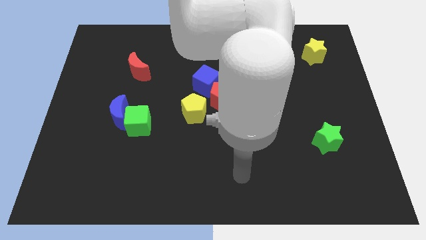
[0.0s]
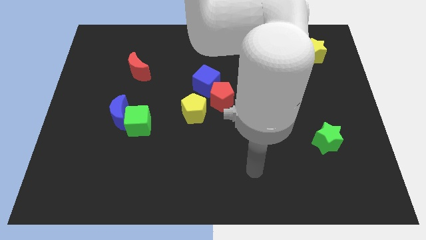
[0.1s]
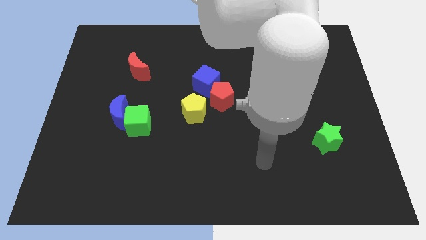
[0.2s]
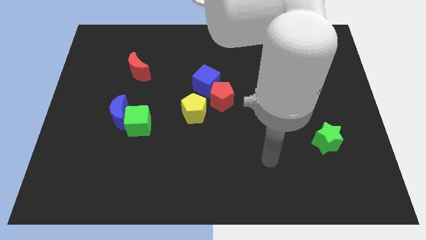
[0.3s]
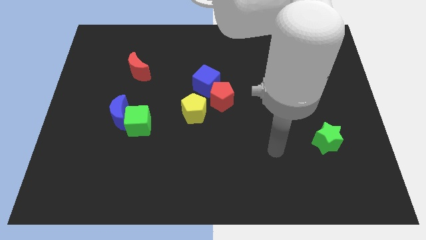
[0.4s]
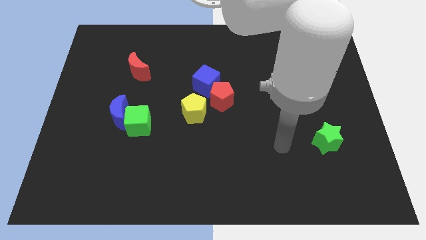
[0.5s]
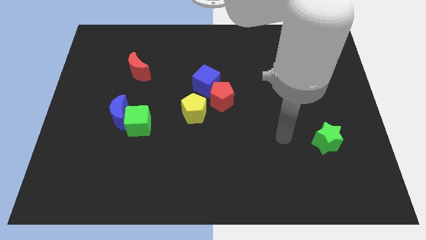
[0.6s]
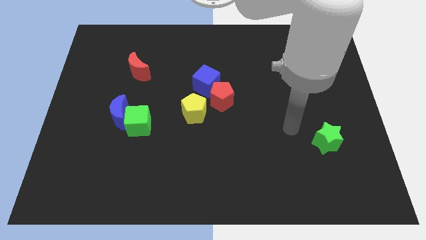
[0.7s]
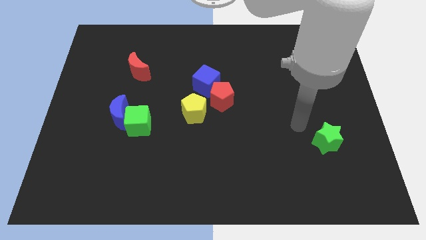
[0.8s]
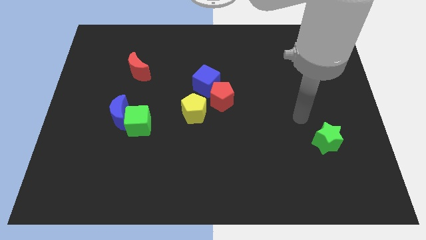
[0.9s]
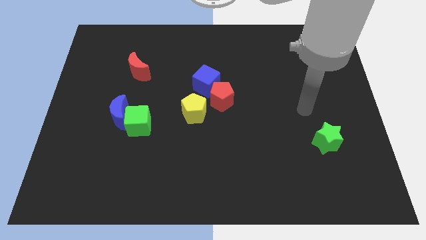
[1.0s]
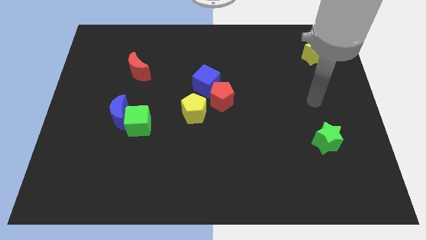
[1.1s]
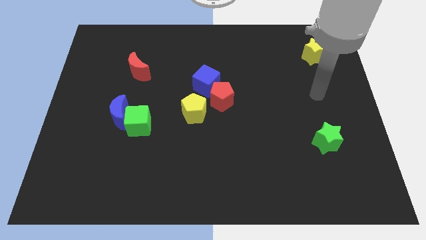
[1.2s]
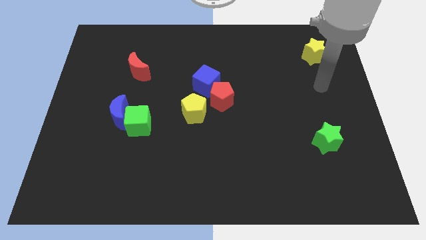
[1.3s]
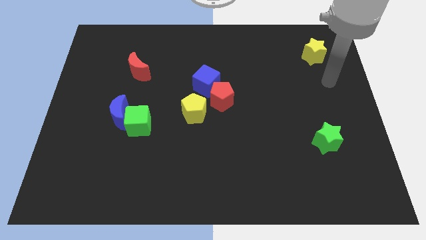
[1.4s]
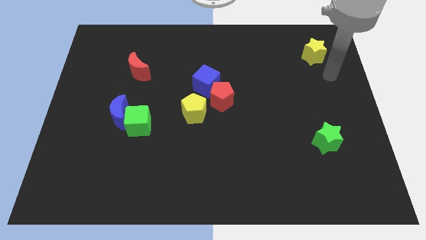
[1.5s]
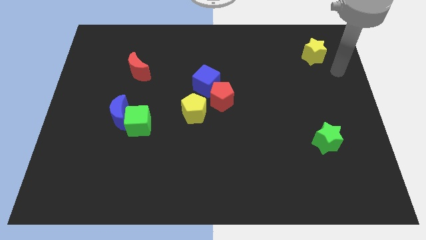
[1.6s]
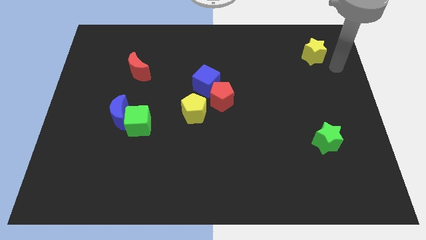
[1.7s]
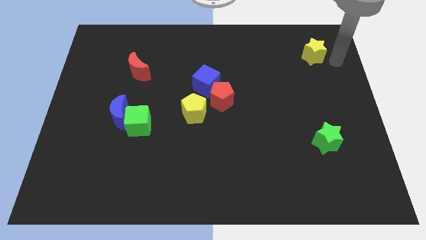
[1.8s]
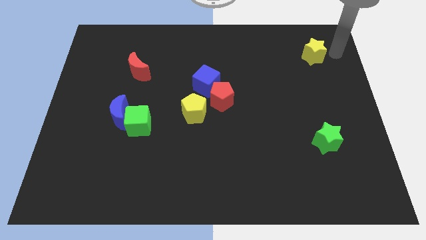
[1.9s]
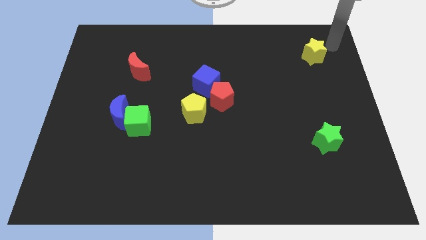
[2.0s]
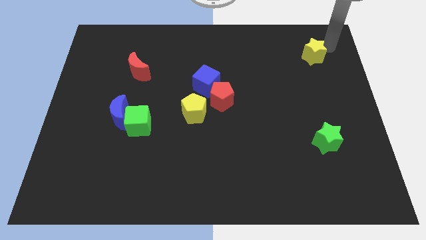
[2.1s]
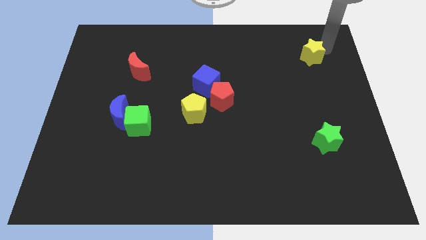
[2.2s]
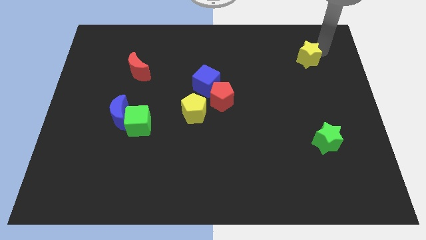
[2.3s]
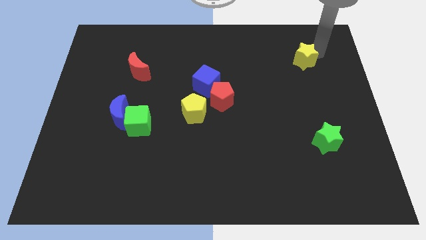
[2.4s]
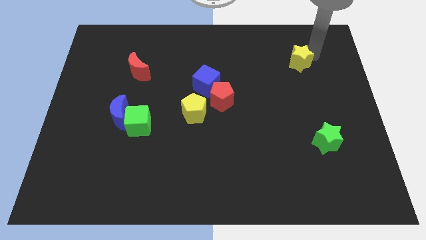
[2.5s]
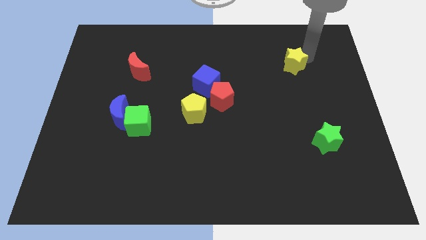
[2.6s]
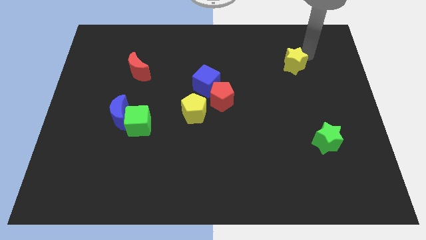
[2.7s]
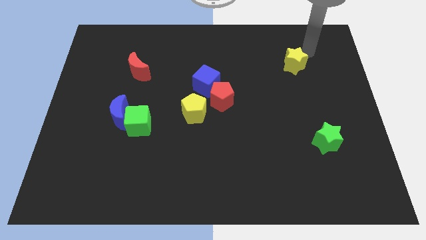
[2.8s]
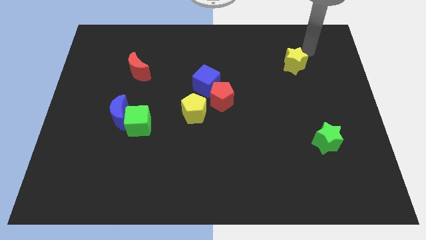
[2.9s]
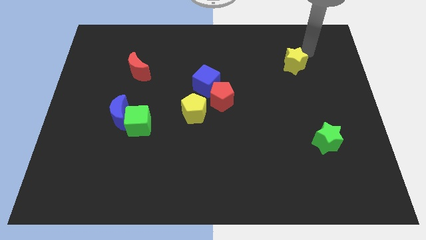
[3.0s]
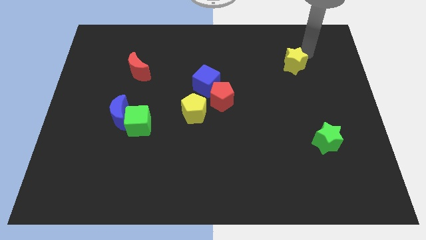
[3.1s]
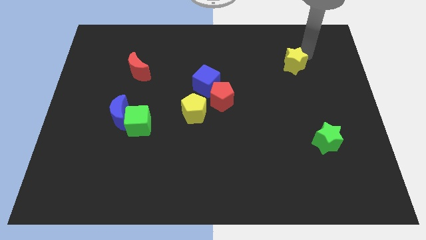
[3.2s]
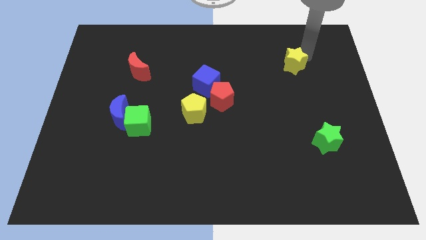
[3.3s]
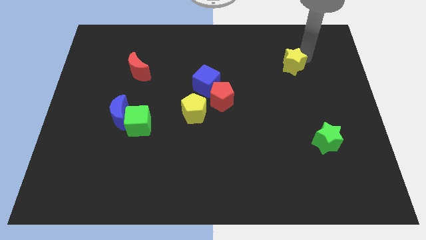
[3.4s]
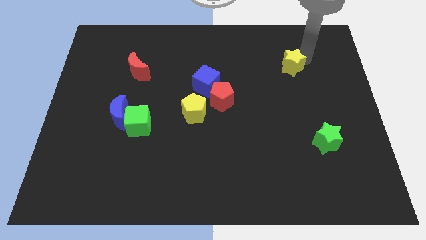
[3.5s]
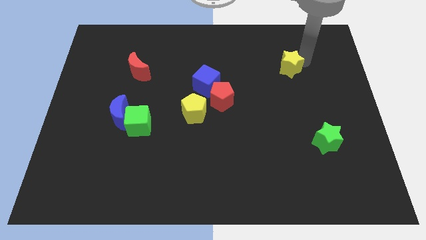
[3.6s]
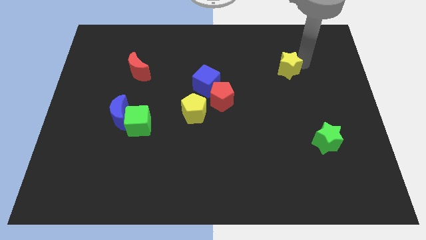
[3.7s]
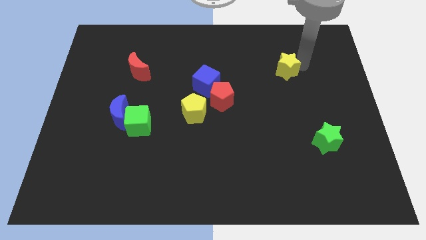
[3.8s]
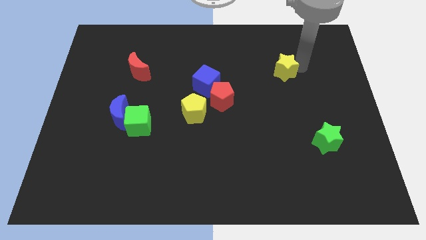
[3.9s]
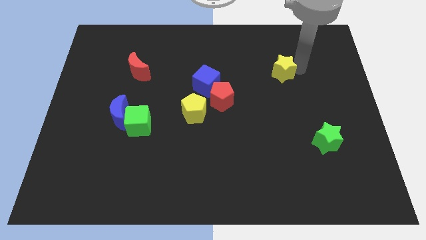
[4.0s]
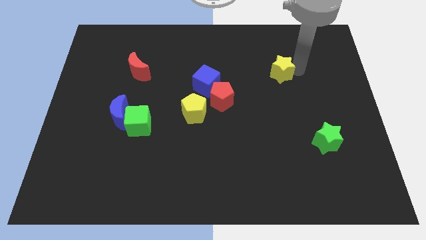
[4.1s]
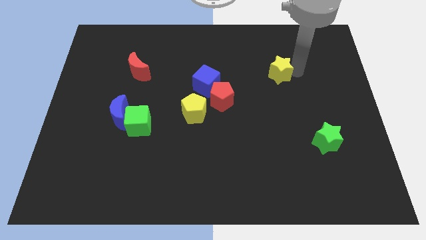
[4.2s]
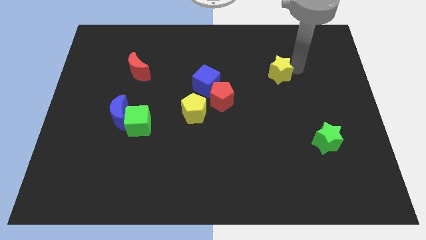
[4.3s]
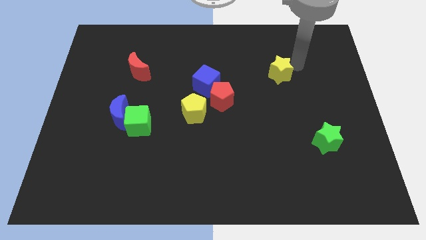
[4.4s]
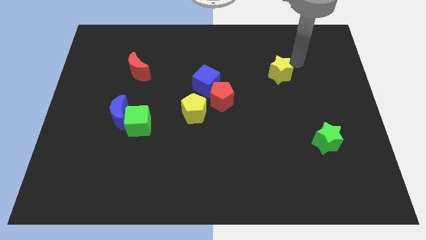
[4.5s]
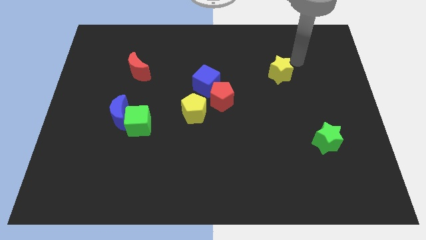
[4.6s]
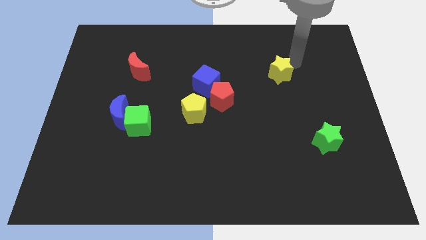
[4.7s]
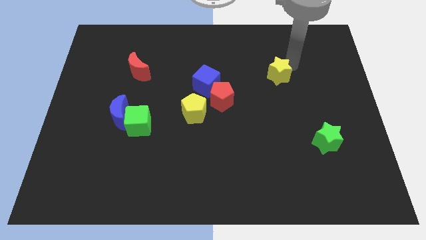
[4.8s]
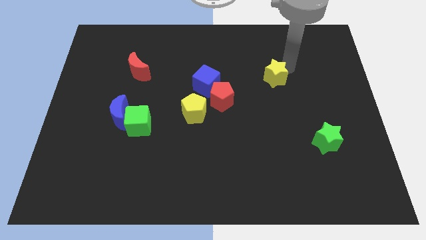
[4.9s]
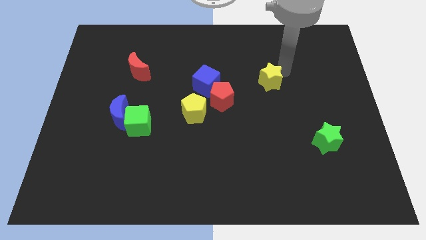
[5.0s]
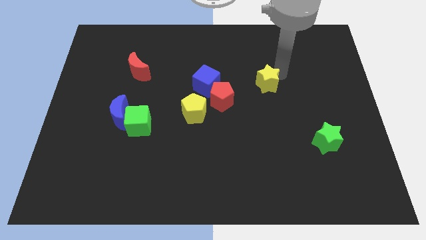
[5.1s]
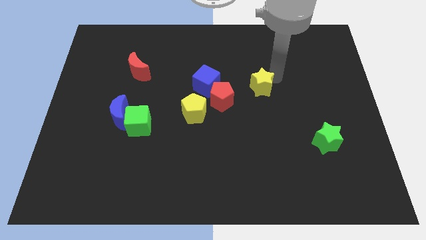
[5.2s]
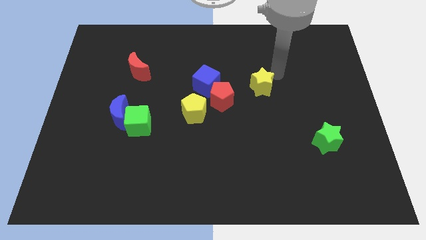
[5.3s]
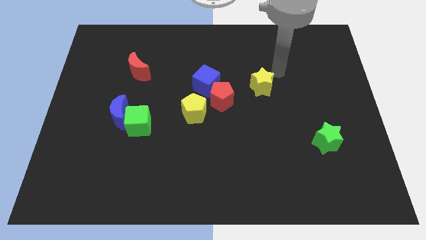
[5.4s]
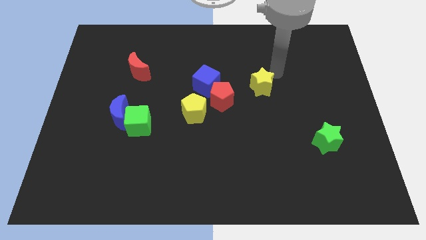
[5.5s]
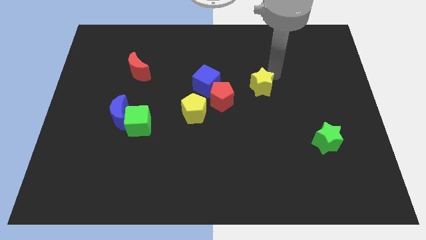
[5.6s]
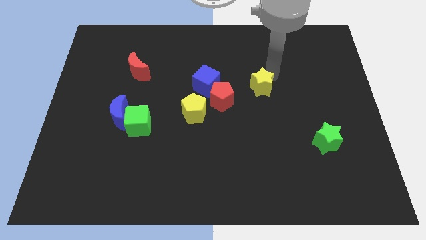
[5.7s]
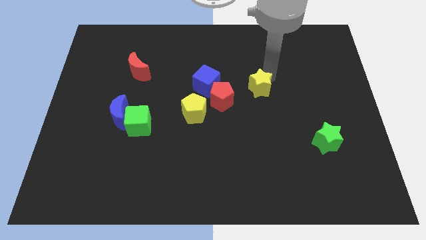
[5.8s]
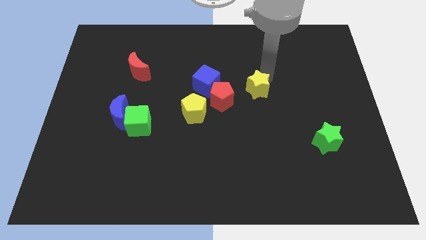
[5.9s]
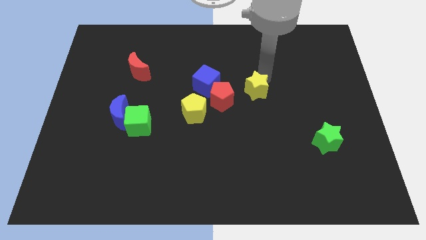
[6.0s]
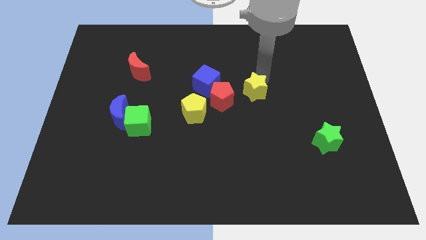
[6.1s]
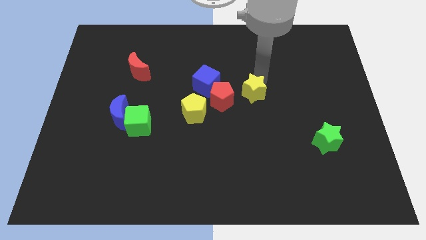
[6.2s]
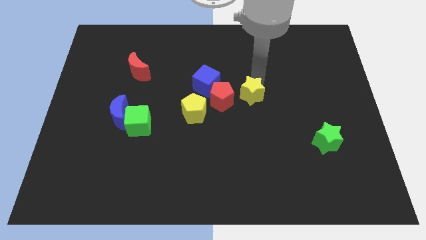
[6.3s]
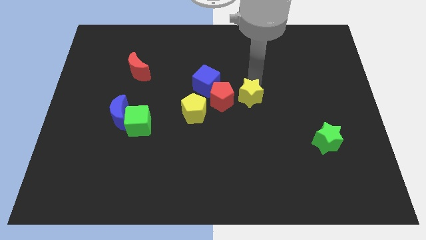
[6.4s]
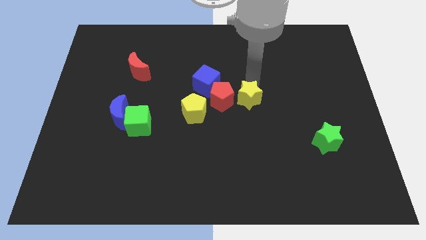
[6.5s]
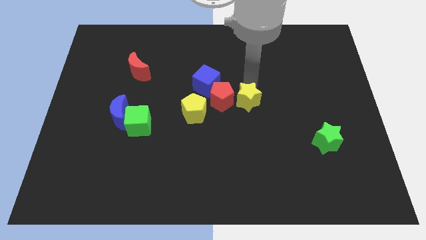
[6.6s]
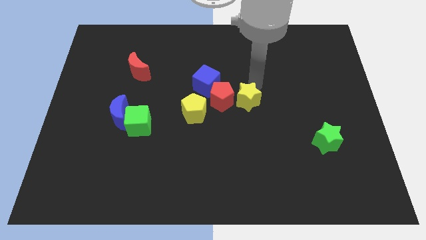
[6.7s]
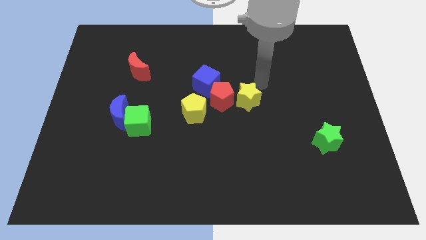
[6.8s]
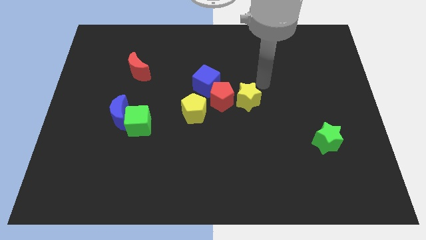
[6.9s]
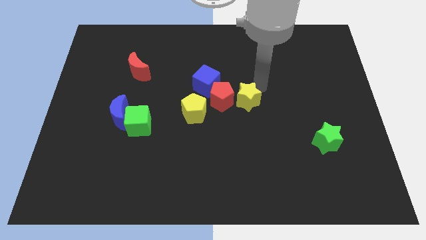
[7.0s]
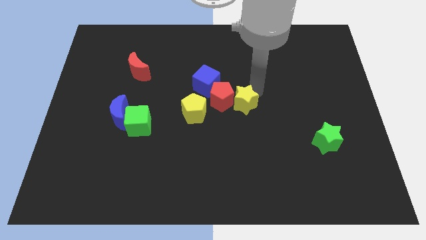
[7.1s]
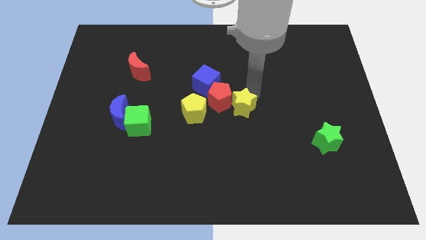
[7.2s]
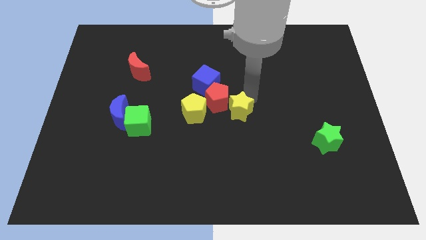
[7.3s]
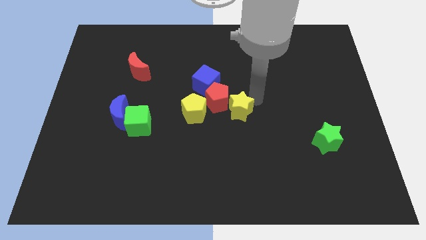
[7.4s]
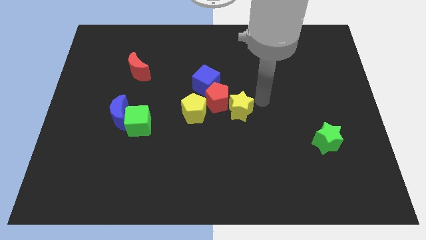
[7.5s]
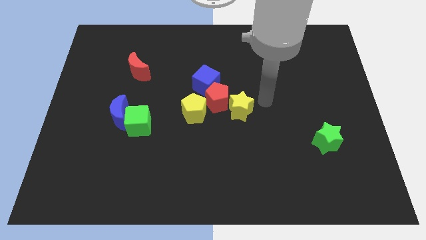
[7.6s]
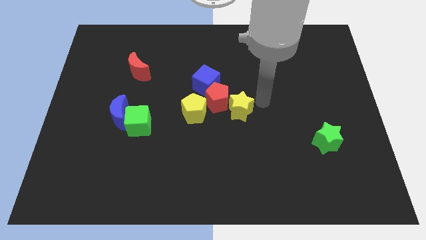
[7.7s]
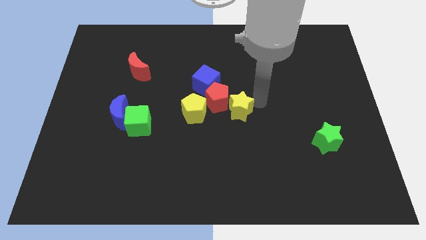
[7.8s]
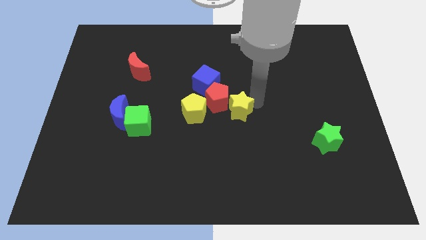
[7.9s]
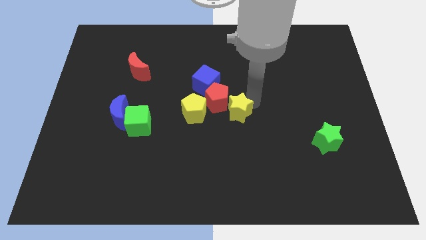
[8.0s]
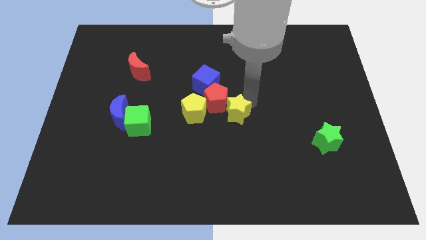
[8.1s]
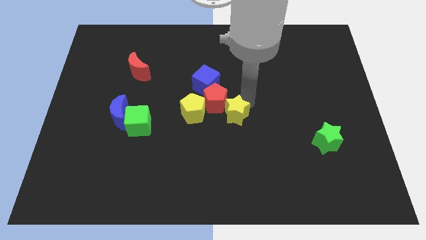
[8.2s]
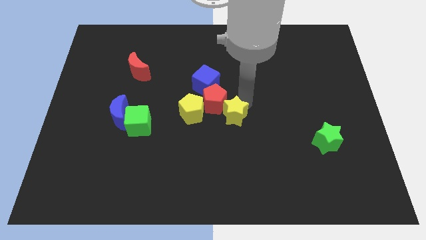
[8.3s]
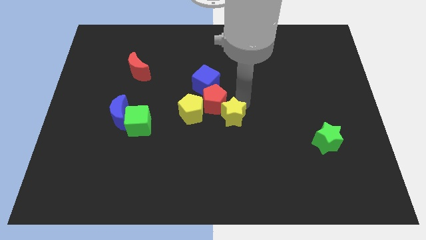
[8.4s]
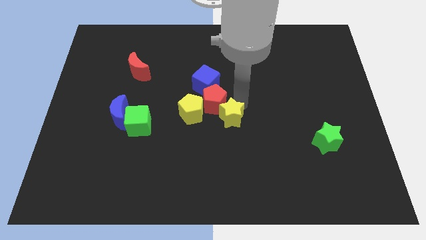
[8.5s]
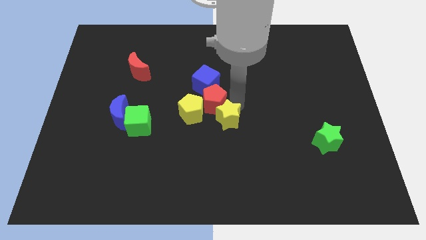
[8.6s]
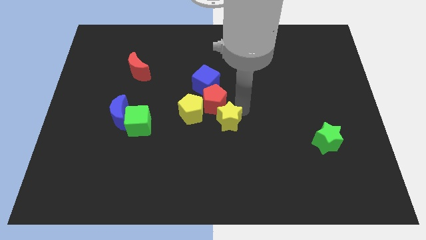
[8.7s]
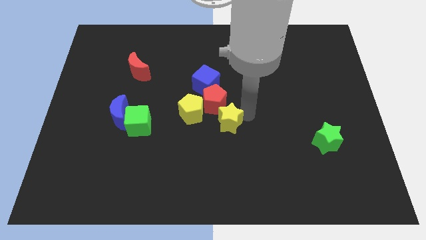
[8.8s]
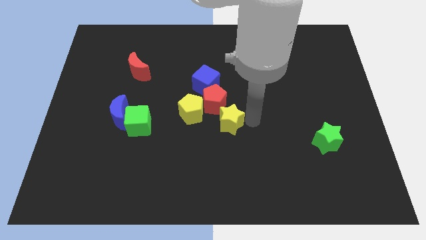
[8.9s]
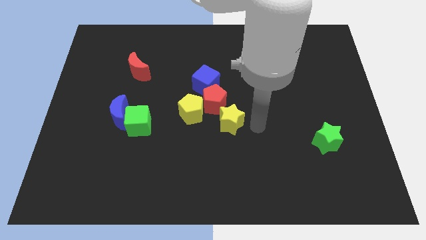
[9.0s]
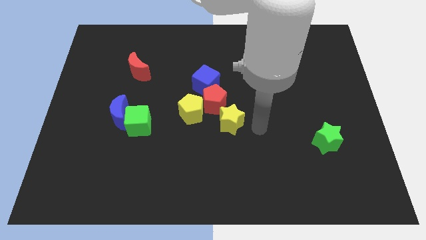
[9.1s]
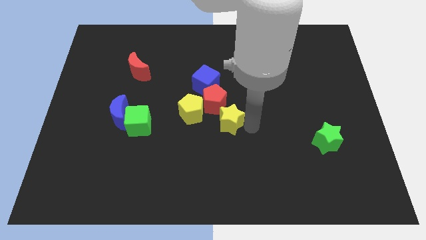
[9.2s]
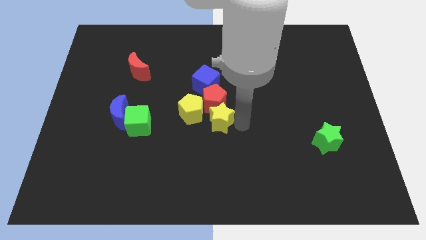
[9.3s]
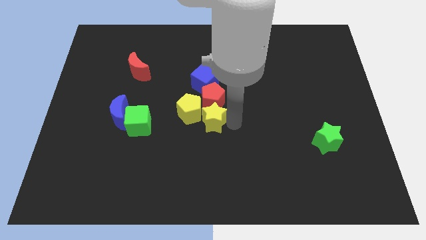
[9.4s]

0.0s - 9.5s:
move the yellow star close to the yellow pentagon
